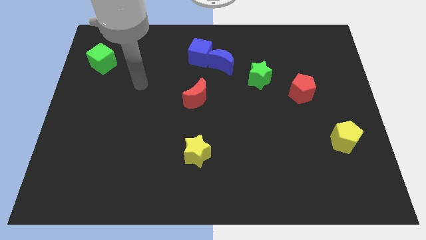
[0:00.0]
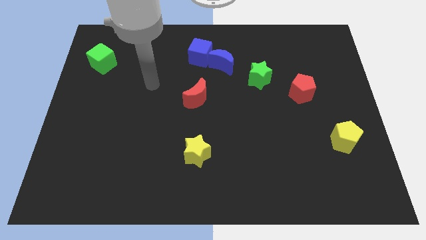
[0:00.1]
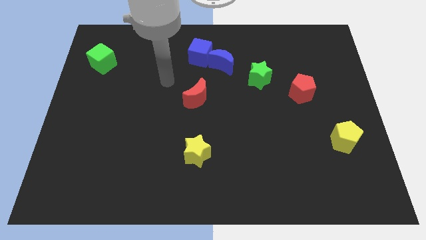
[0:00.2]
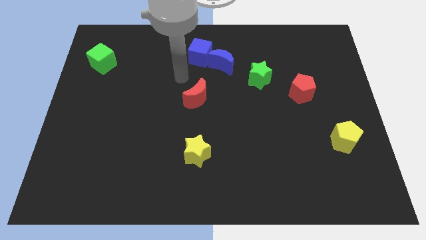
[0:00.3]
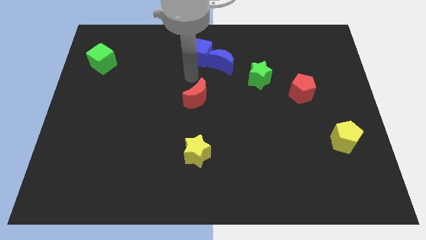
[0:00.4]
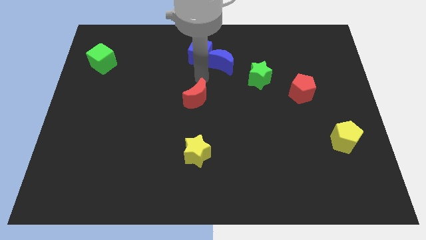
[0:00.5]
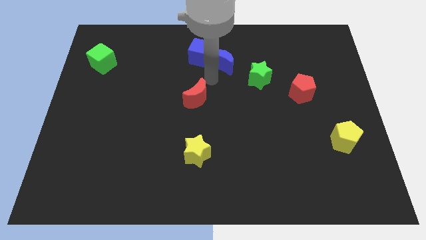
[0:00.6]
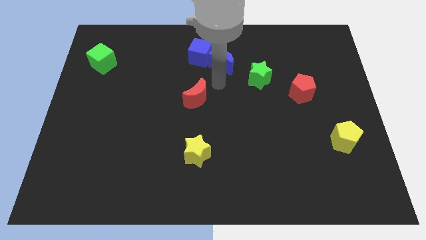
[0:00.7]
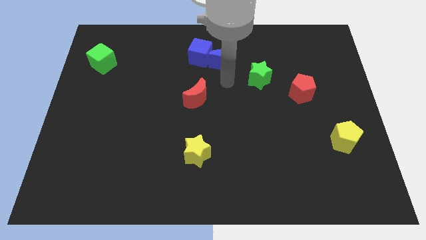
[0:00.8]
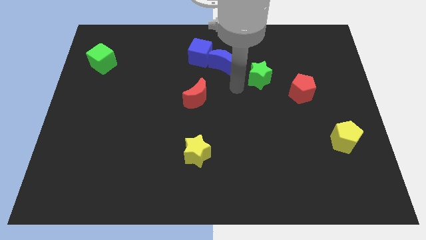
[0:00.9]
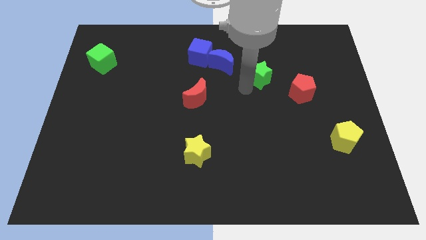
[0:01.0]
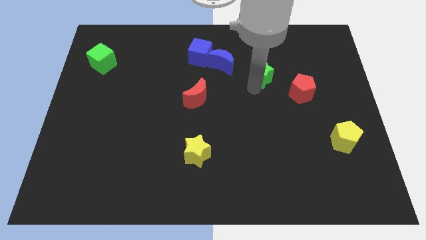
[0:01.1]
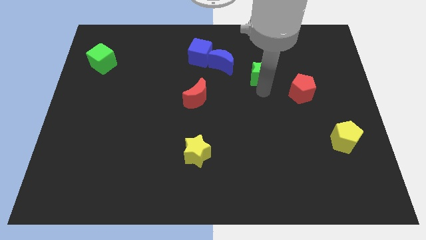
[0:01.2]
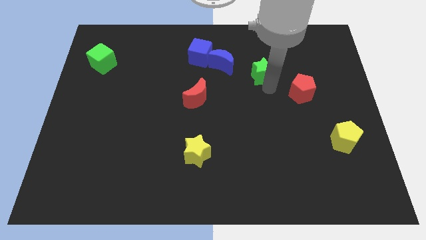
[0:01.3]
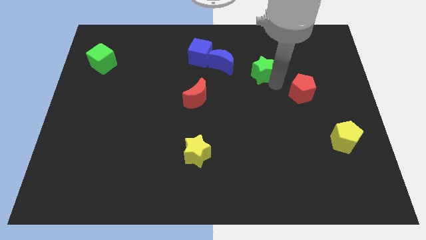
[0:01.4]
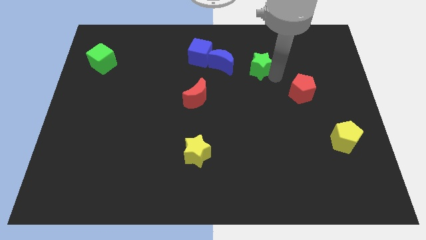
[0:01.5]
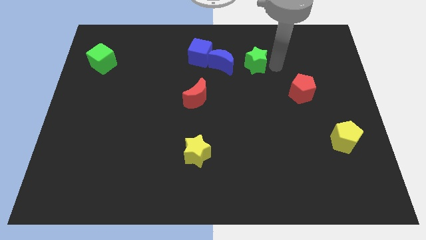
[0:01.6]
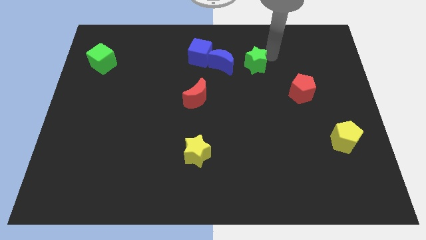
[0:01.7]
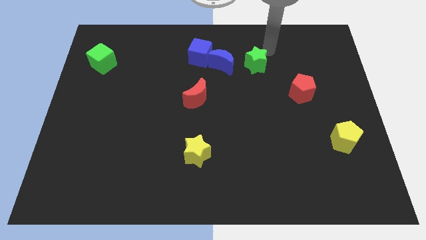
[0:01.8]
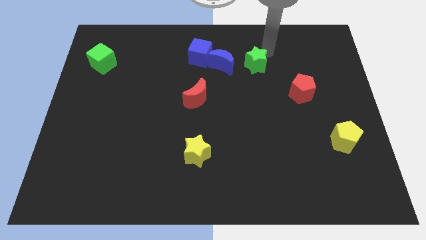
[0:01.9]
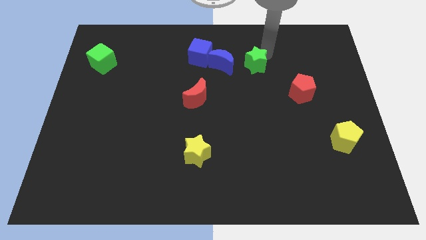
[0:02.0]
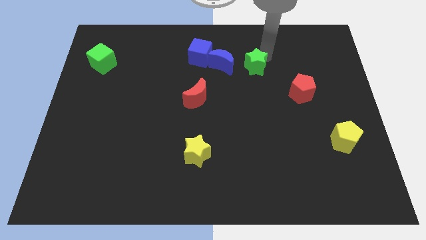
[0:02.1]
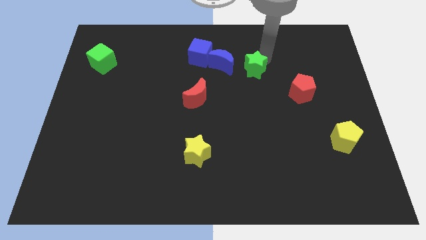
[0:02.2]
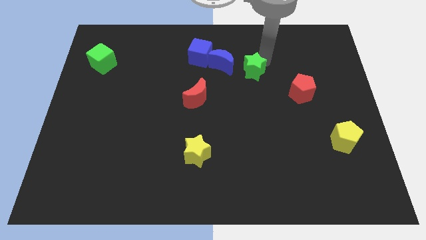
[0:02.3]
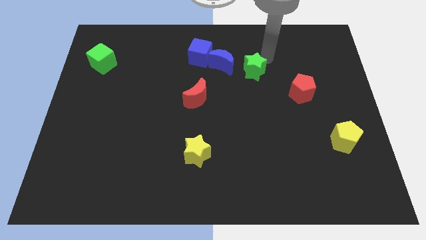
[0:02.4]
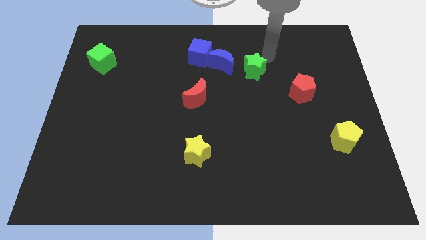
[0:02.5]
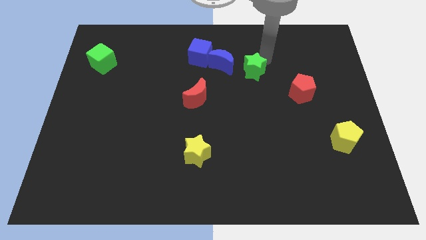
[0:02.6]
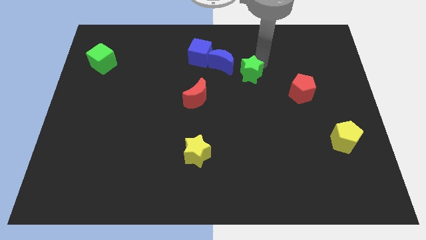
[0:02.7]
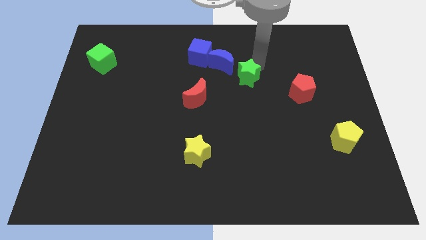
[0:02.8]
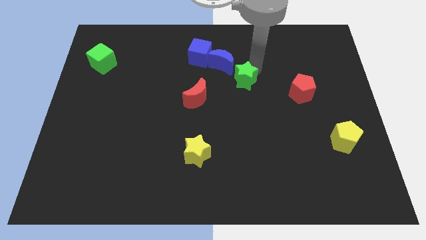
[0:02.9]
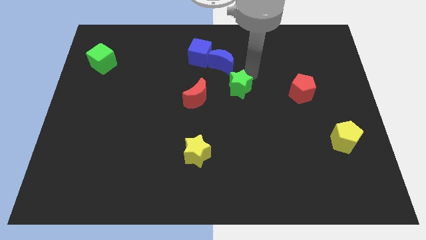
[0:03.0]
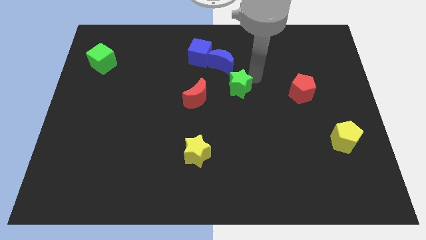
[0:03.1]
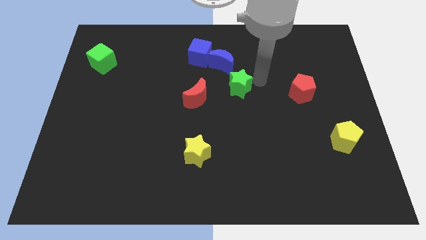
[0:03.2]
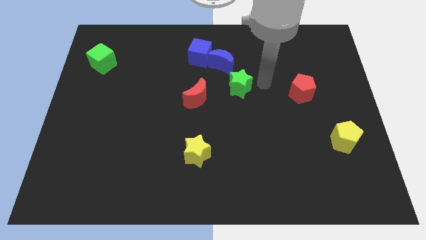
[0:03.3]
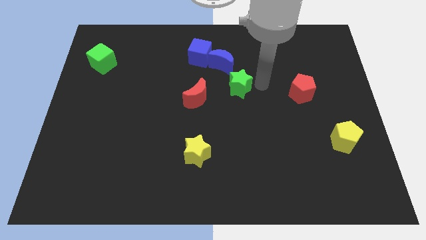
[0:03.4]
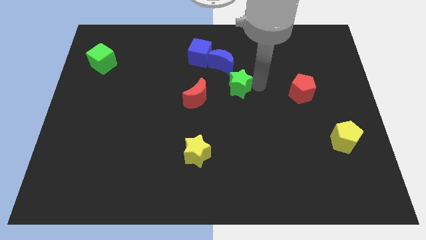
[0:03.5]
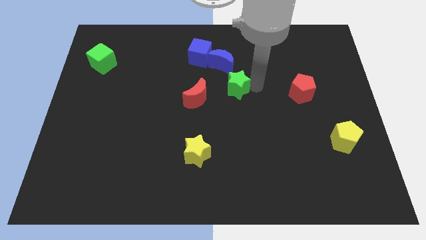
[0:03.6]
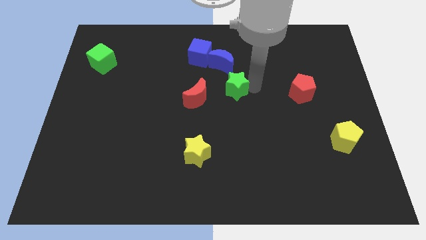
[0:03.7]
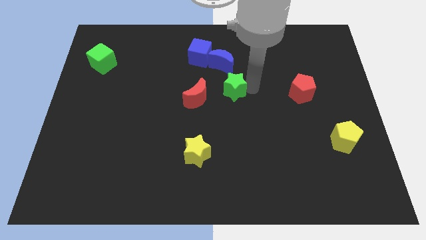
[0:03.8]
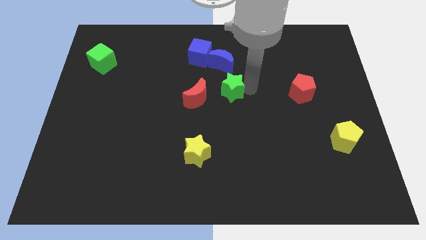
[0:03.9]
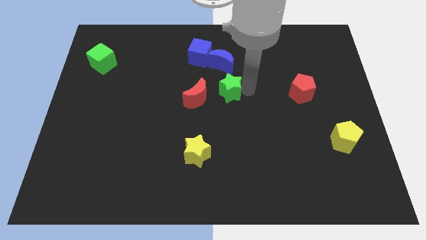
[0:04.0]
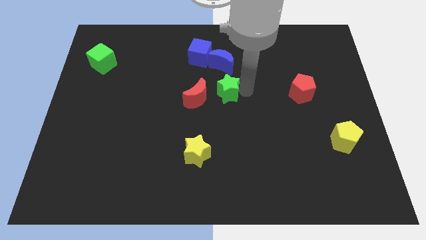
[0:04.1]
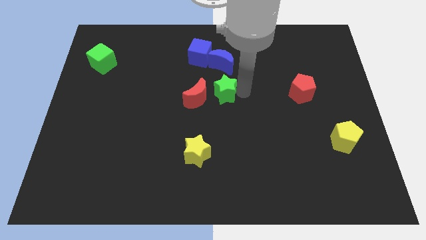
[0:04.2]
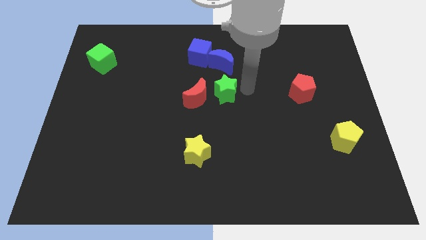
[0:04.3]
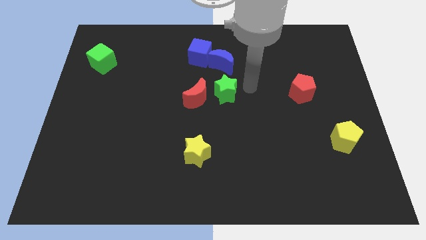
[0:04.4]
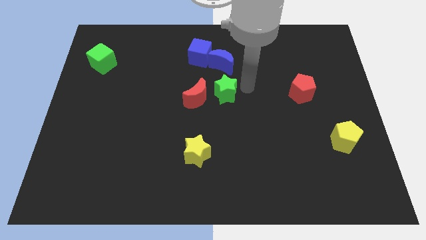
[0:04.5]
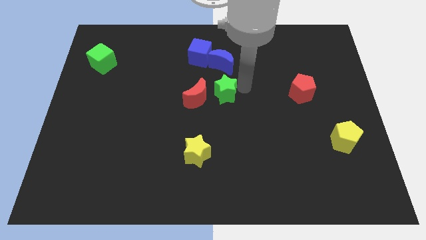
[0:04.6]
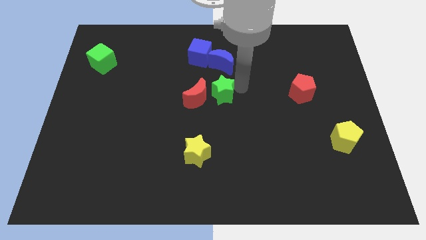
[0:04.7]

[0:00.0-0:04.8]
put the green star towards the red moon

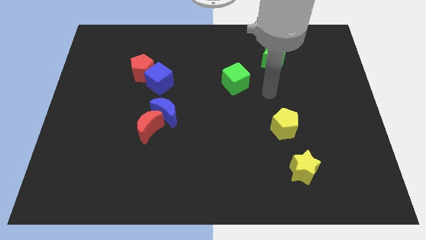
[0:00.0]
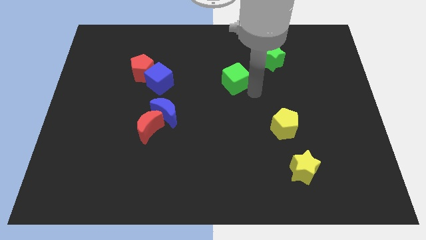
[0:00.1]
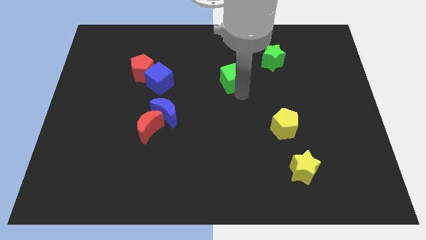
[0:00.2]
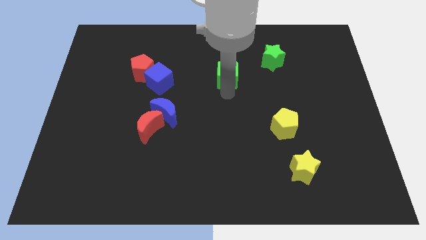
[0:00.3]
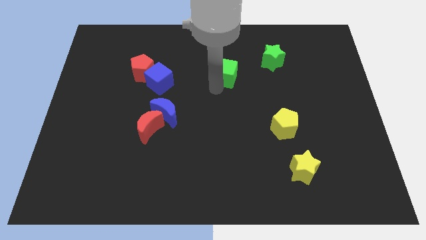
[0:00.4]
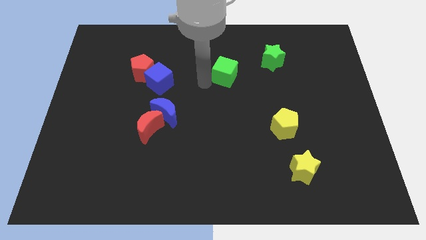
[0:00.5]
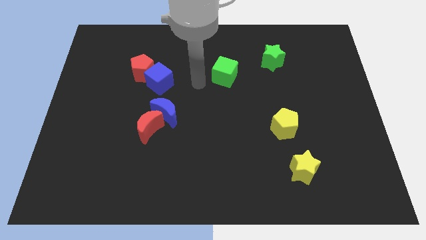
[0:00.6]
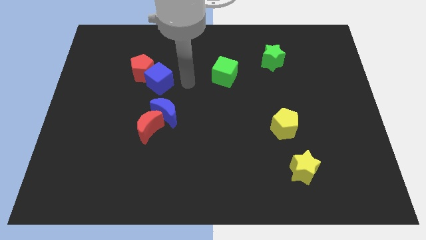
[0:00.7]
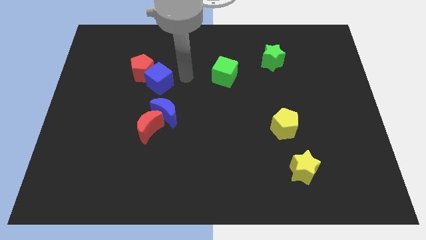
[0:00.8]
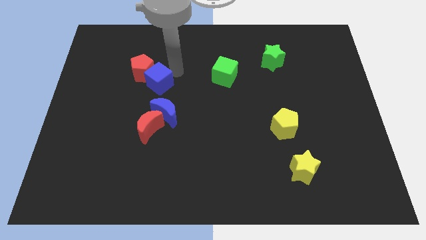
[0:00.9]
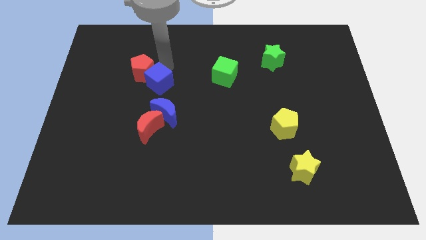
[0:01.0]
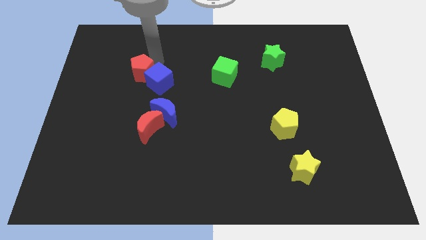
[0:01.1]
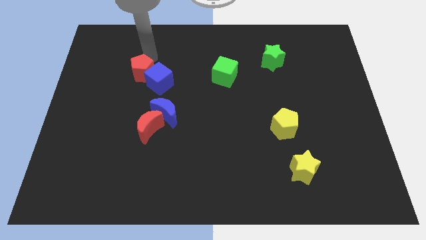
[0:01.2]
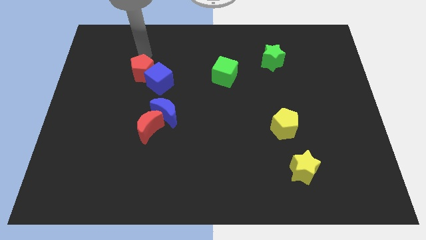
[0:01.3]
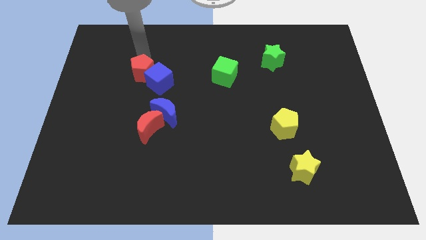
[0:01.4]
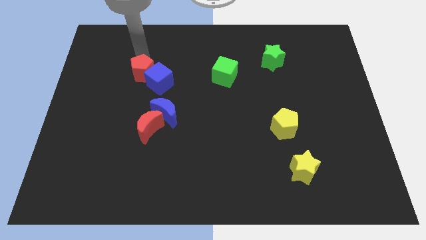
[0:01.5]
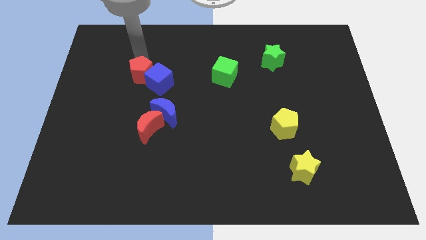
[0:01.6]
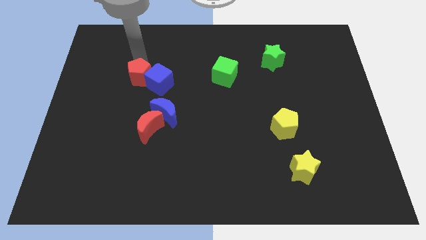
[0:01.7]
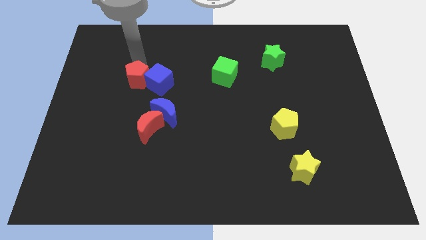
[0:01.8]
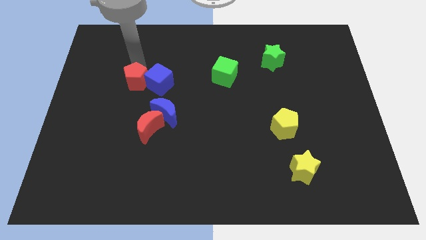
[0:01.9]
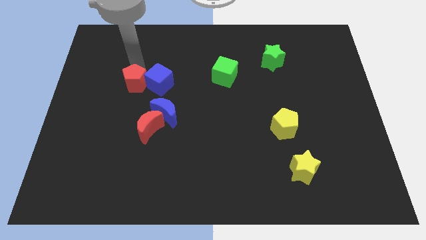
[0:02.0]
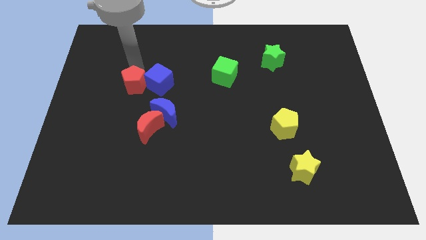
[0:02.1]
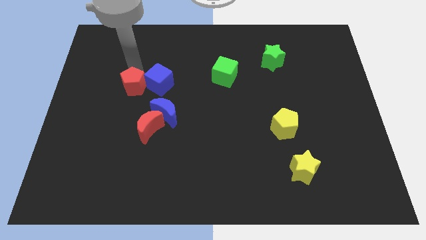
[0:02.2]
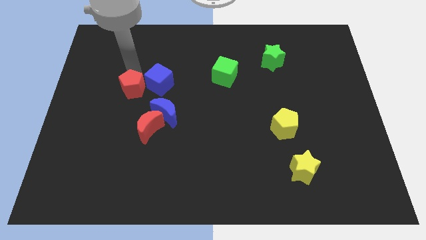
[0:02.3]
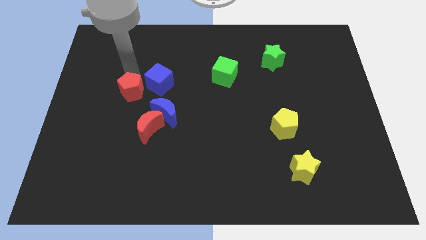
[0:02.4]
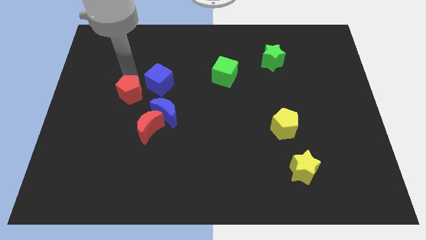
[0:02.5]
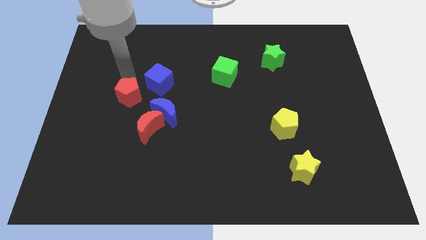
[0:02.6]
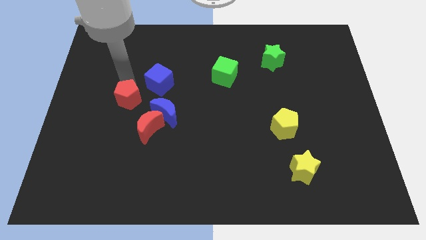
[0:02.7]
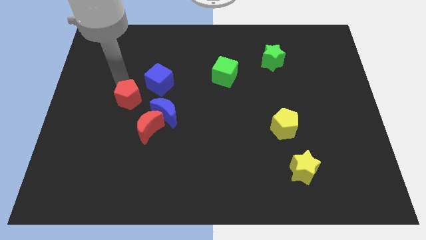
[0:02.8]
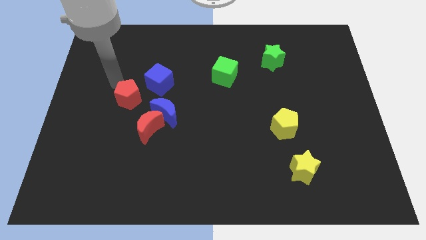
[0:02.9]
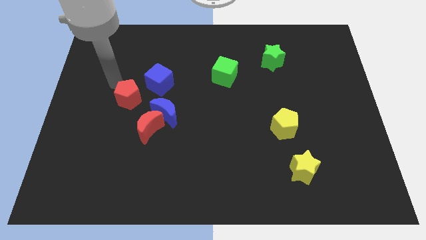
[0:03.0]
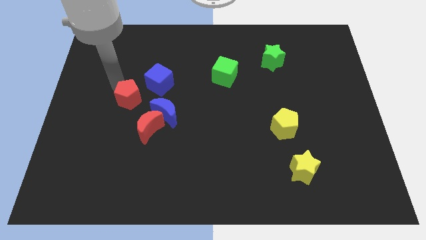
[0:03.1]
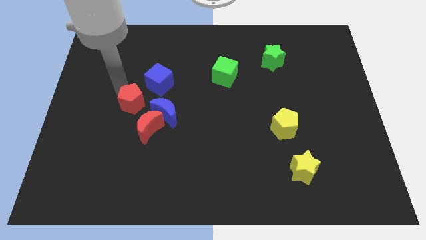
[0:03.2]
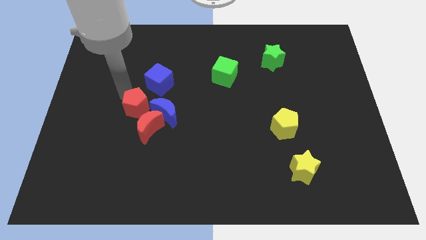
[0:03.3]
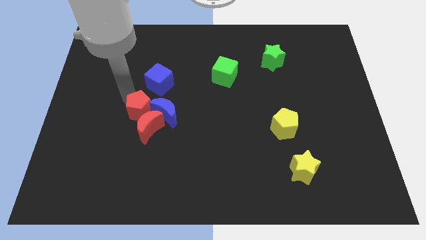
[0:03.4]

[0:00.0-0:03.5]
push the red pentagon next to the red moon

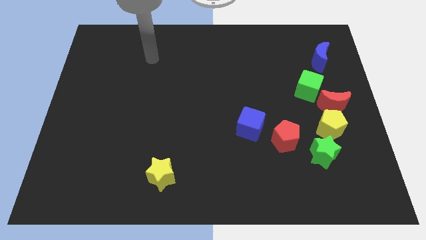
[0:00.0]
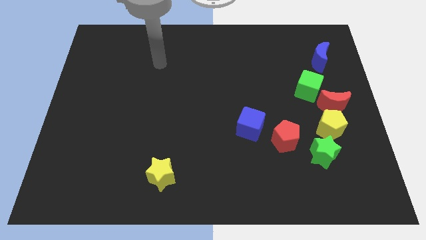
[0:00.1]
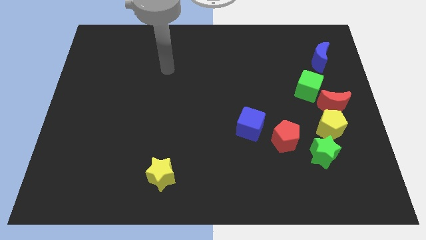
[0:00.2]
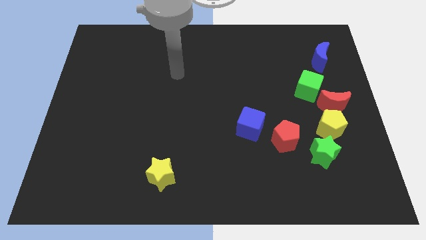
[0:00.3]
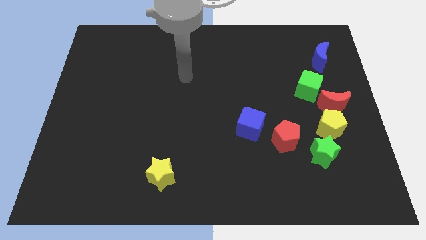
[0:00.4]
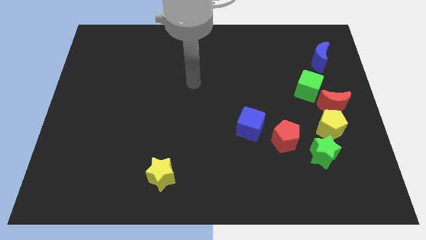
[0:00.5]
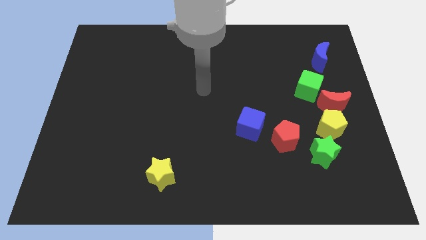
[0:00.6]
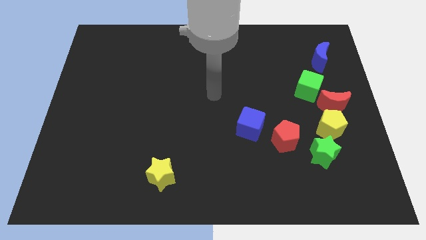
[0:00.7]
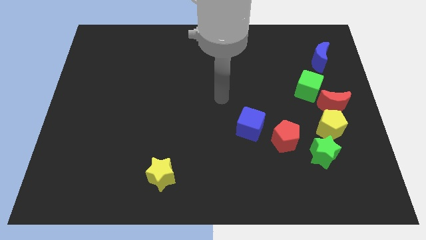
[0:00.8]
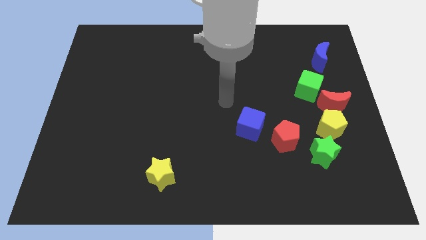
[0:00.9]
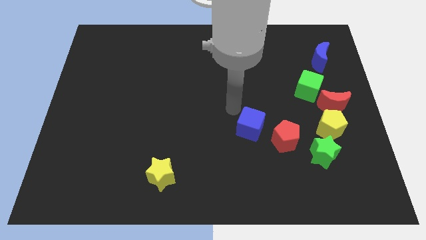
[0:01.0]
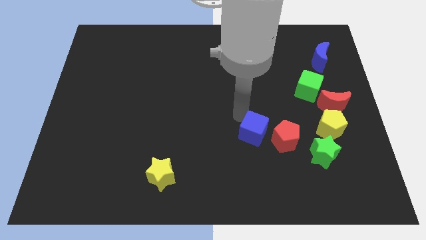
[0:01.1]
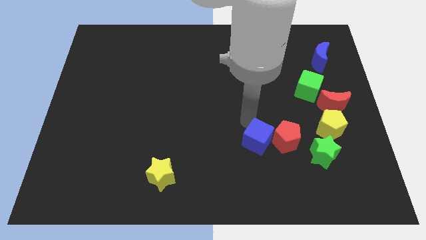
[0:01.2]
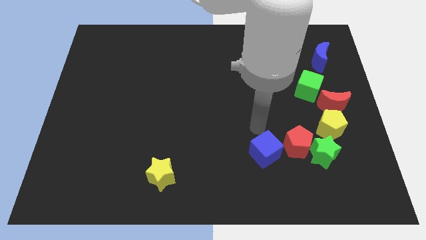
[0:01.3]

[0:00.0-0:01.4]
move the red pentagon towards the green star
